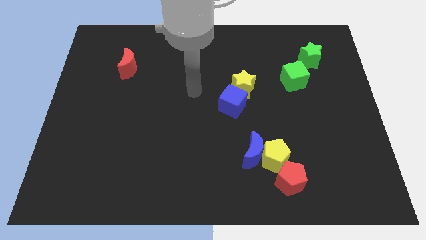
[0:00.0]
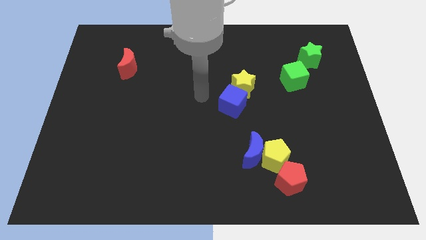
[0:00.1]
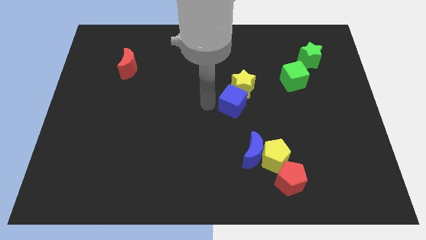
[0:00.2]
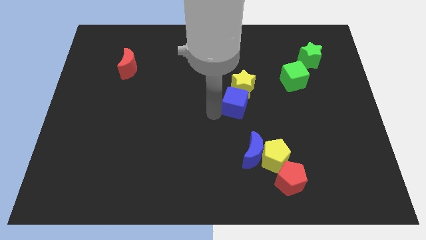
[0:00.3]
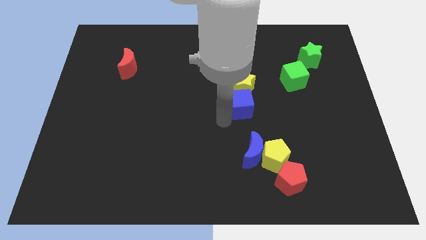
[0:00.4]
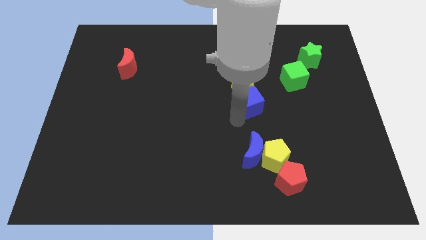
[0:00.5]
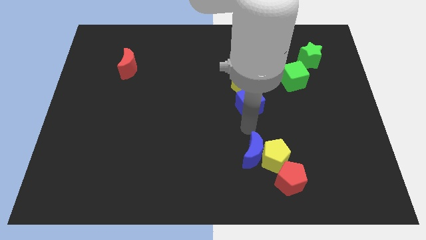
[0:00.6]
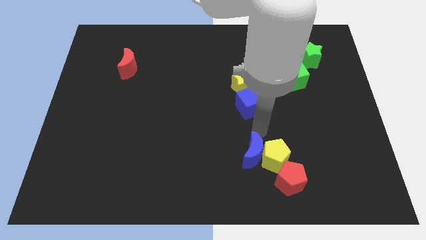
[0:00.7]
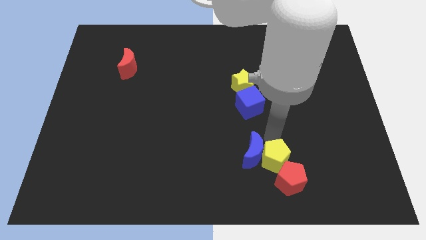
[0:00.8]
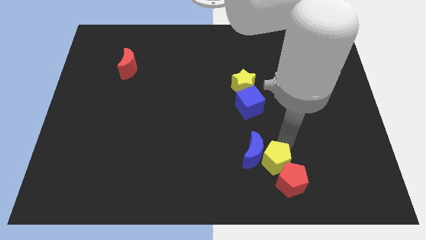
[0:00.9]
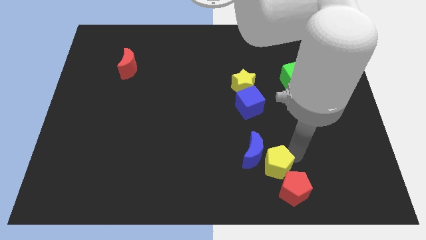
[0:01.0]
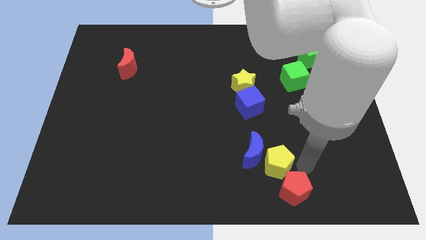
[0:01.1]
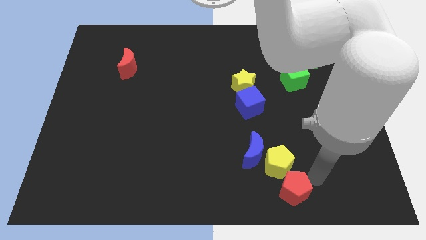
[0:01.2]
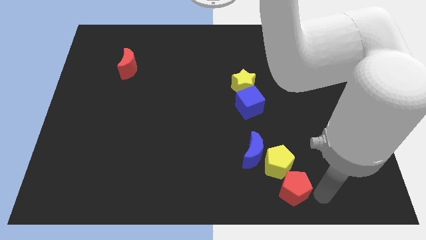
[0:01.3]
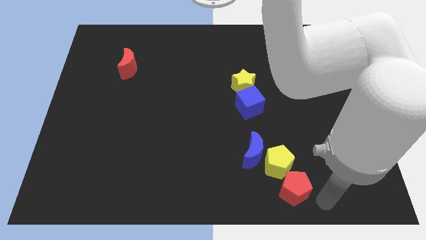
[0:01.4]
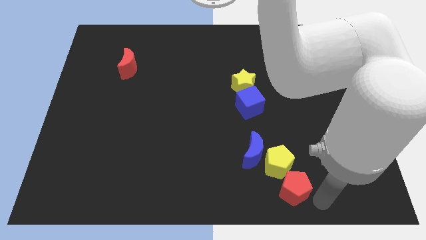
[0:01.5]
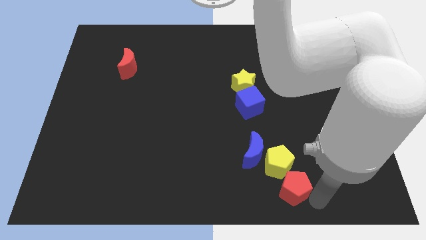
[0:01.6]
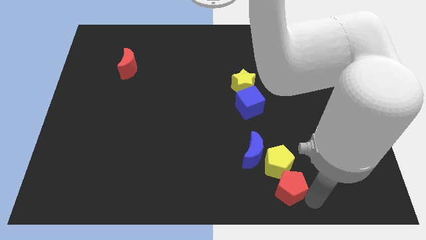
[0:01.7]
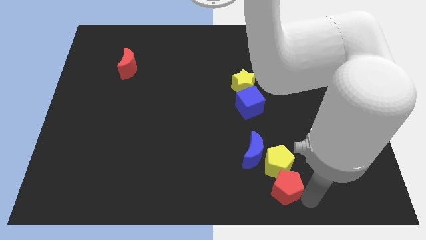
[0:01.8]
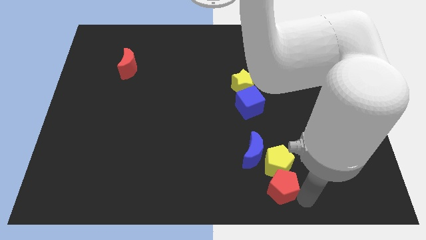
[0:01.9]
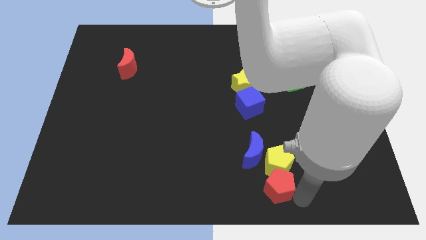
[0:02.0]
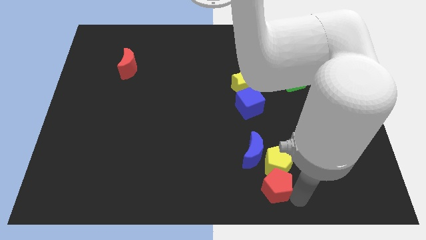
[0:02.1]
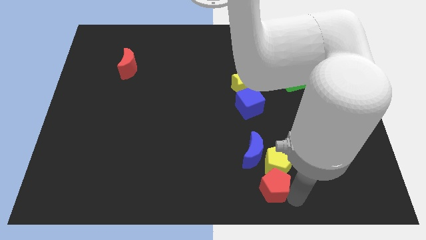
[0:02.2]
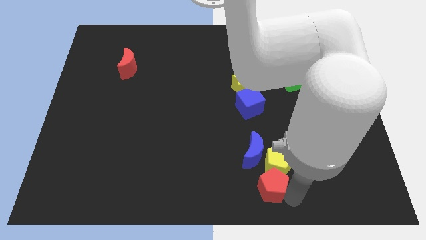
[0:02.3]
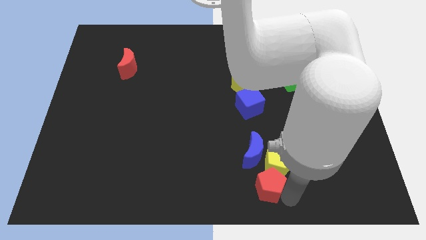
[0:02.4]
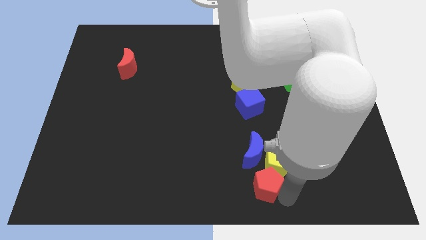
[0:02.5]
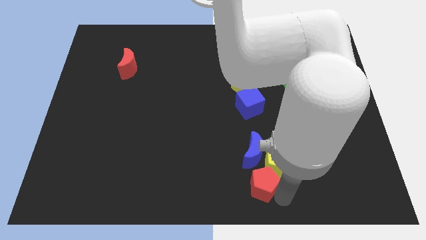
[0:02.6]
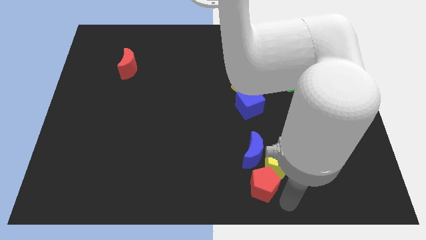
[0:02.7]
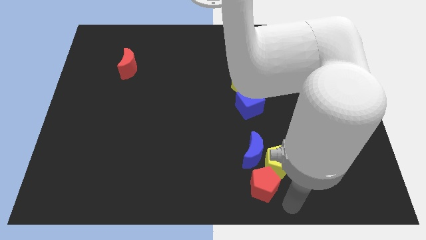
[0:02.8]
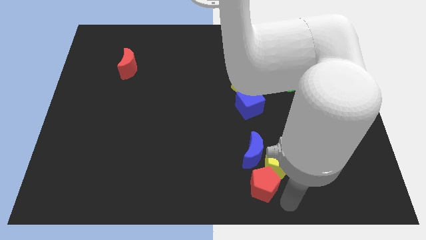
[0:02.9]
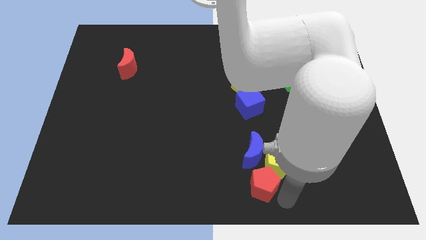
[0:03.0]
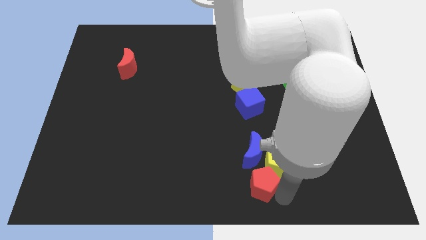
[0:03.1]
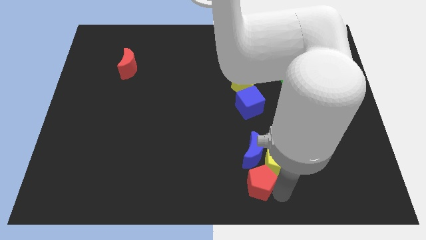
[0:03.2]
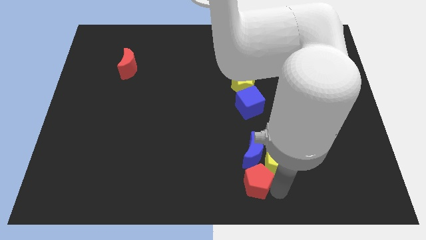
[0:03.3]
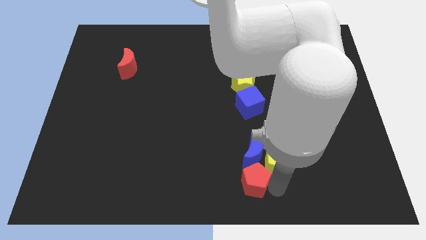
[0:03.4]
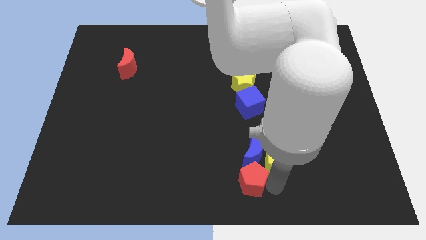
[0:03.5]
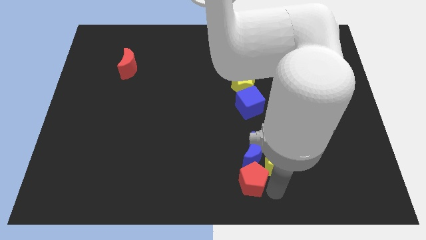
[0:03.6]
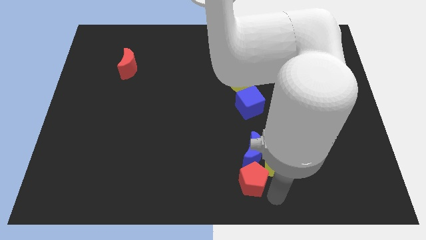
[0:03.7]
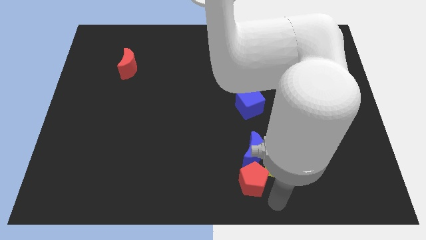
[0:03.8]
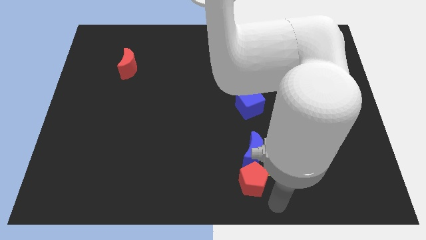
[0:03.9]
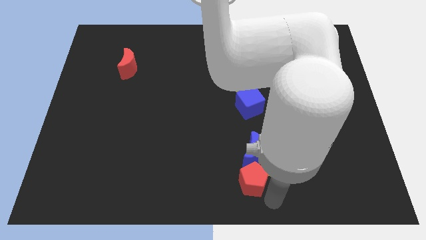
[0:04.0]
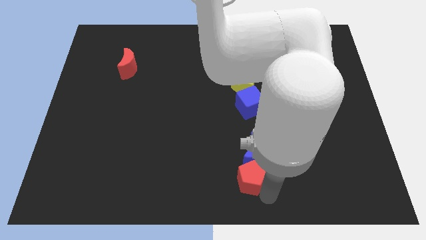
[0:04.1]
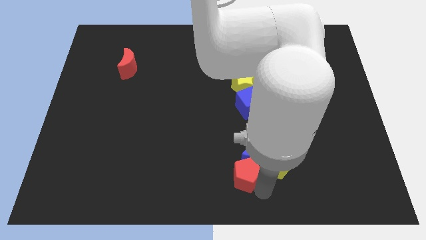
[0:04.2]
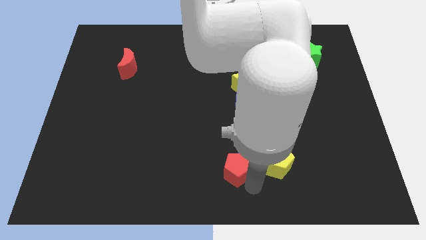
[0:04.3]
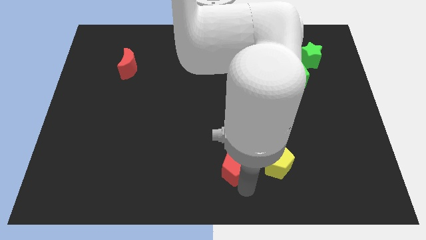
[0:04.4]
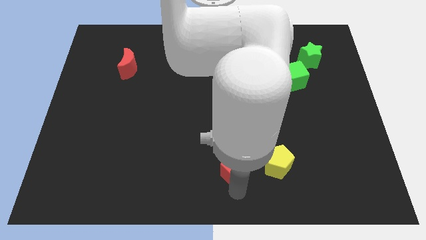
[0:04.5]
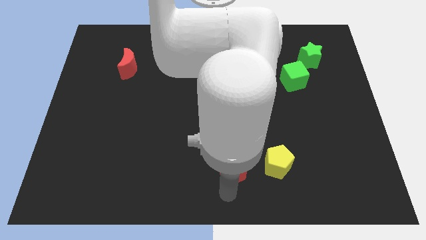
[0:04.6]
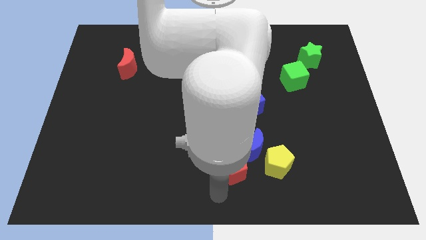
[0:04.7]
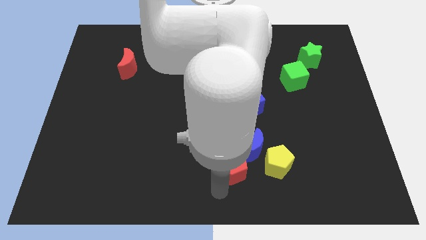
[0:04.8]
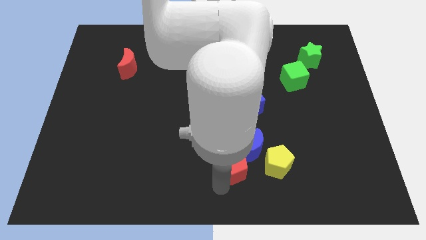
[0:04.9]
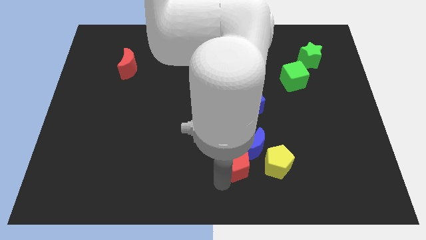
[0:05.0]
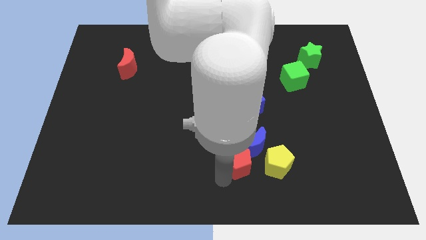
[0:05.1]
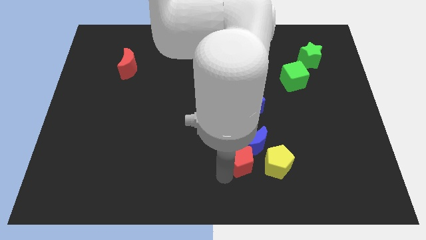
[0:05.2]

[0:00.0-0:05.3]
slide the red pentagon to the bottom of the blue cube

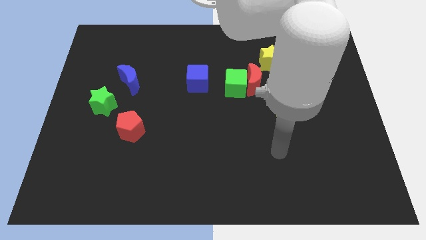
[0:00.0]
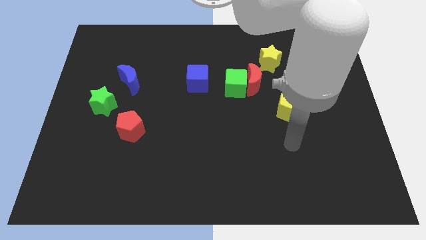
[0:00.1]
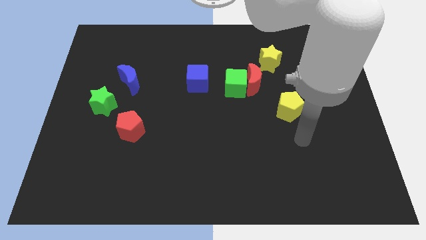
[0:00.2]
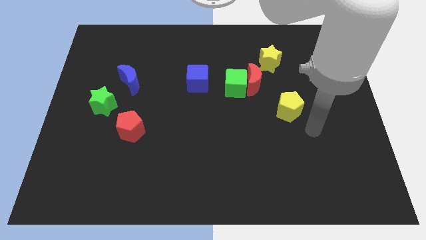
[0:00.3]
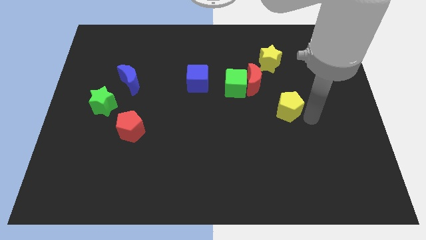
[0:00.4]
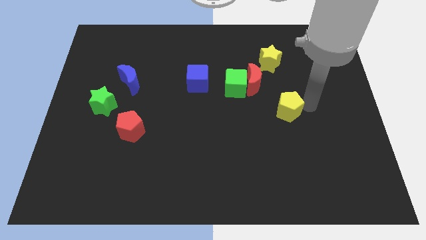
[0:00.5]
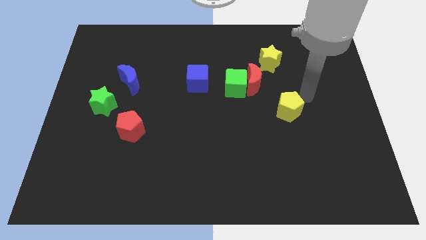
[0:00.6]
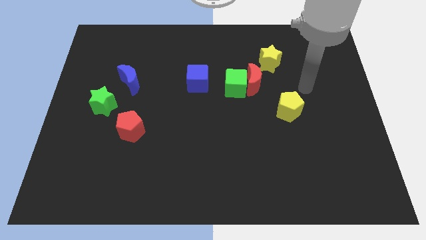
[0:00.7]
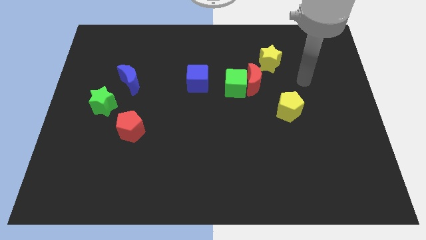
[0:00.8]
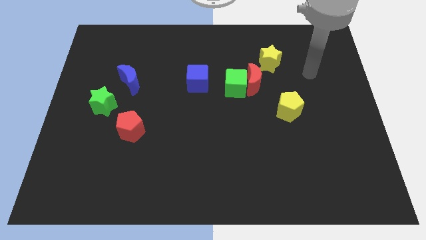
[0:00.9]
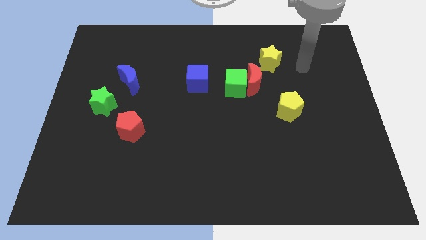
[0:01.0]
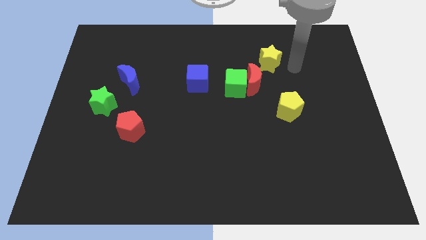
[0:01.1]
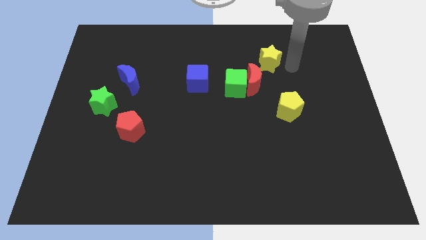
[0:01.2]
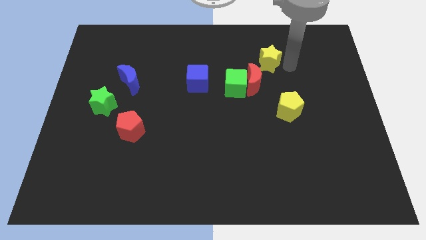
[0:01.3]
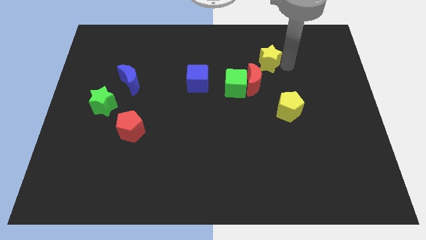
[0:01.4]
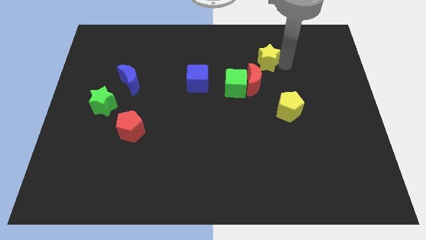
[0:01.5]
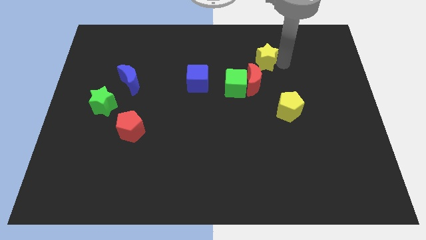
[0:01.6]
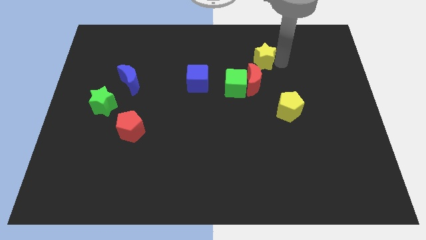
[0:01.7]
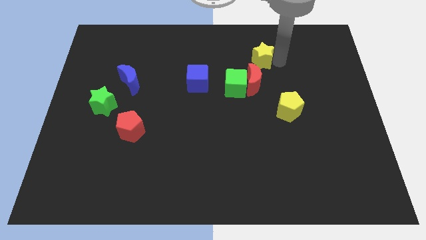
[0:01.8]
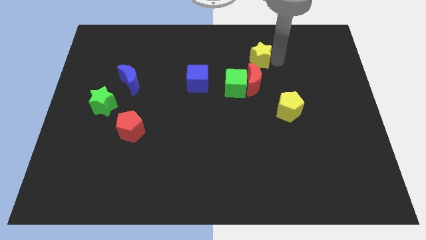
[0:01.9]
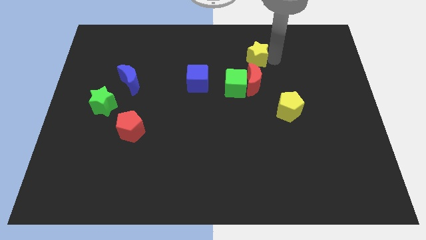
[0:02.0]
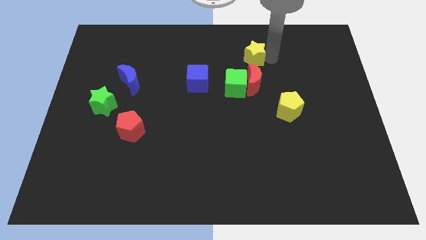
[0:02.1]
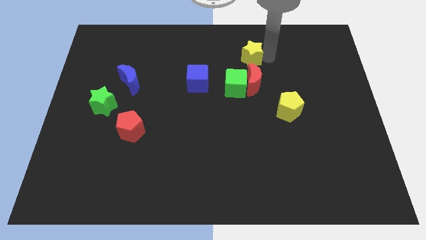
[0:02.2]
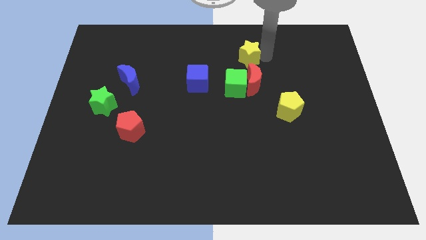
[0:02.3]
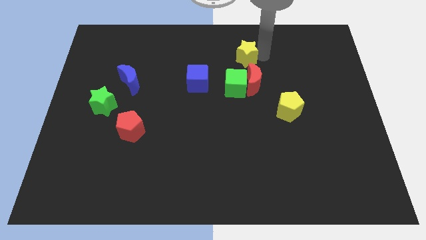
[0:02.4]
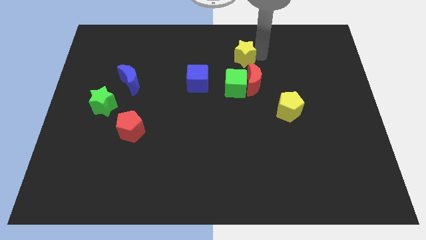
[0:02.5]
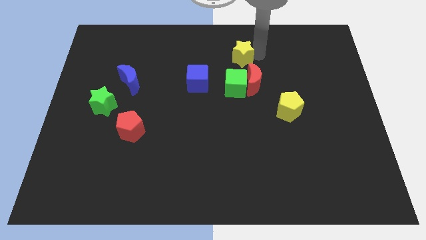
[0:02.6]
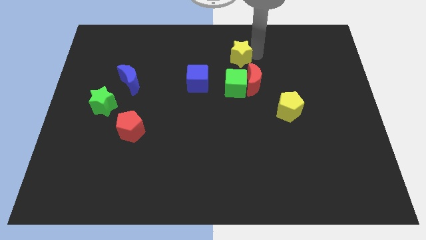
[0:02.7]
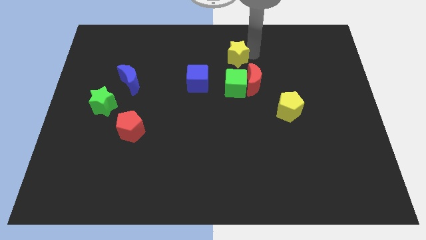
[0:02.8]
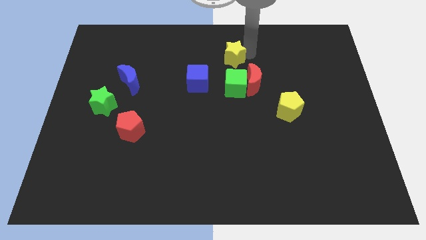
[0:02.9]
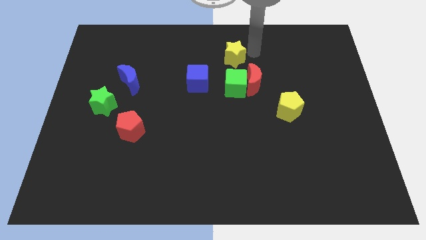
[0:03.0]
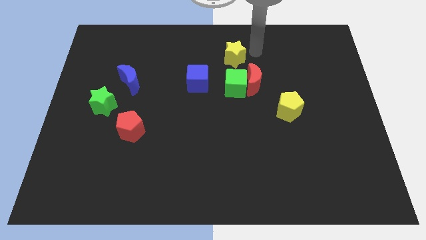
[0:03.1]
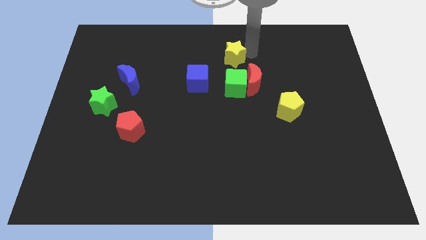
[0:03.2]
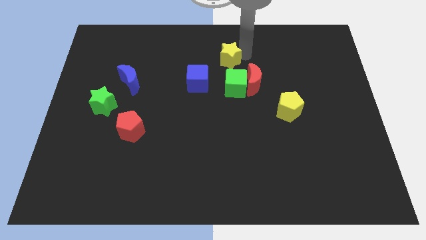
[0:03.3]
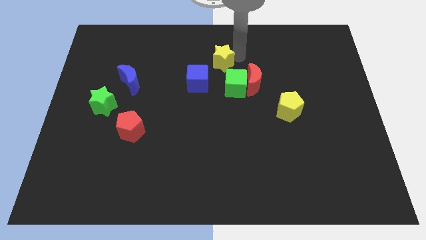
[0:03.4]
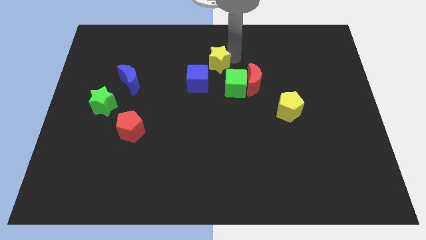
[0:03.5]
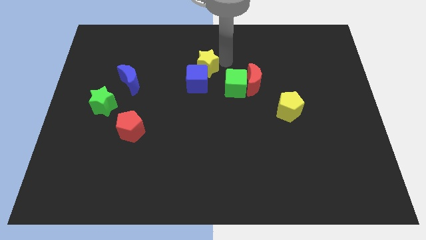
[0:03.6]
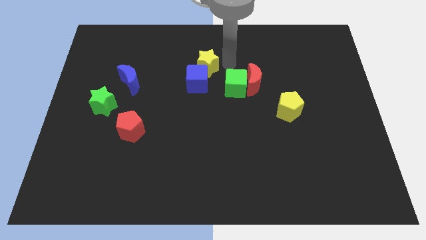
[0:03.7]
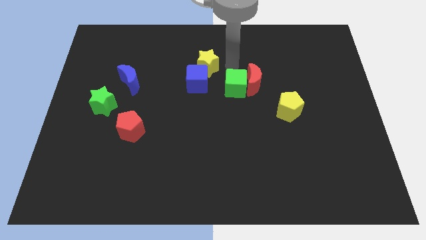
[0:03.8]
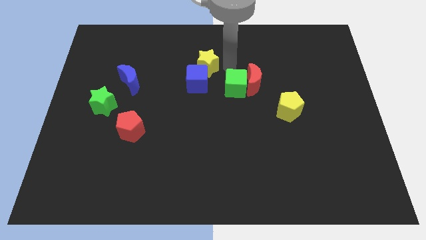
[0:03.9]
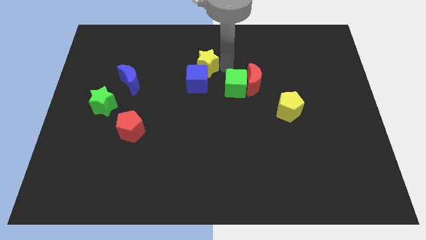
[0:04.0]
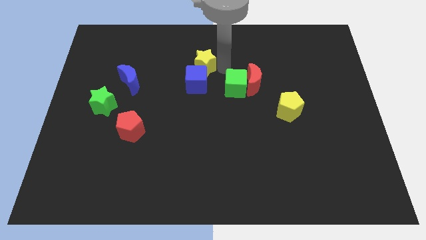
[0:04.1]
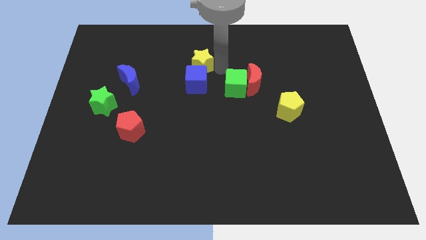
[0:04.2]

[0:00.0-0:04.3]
move the yellow star diagonally up and to the left of the blue cube
